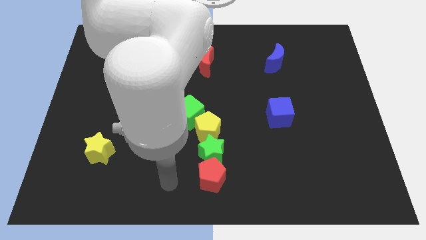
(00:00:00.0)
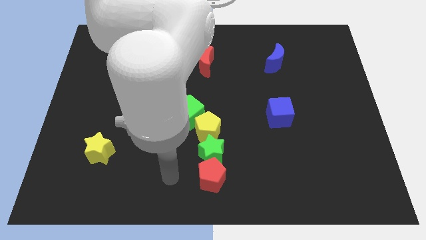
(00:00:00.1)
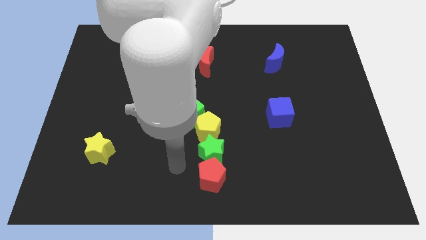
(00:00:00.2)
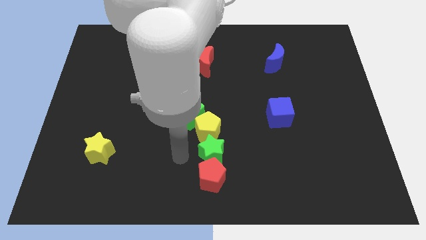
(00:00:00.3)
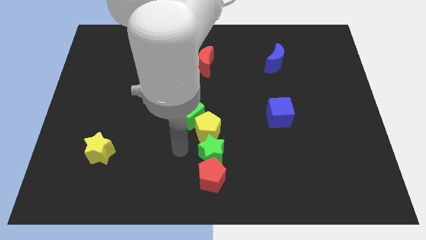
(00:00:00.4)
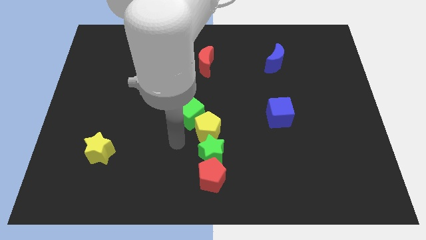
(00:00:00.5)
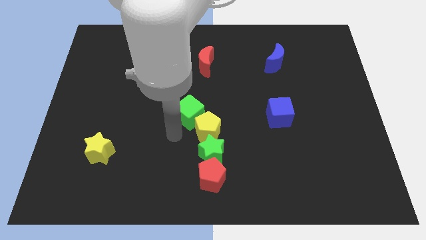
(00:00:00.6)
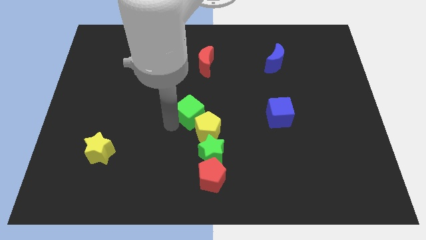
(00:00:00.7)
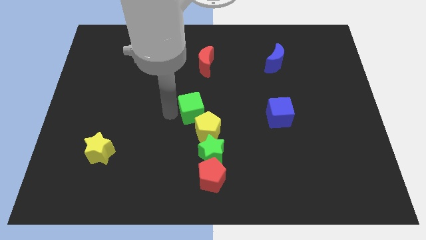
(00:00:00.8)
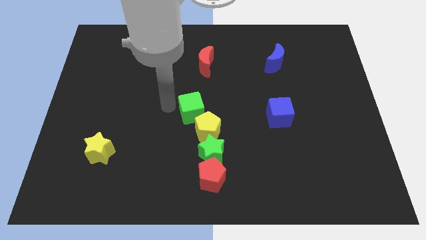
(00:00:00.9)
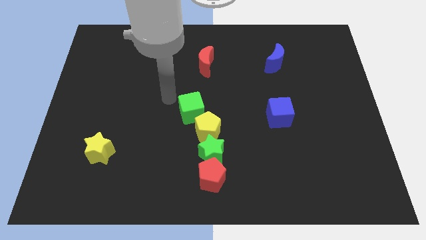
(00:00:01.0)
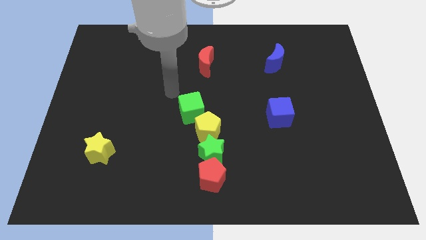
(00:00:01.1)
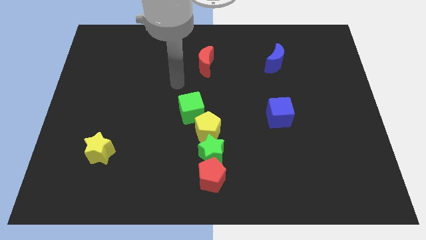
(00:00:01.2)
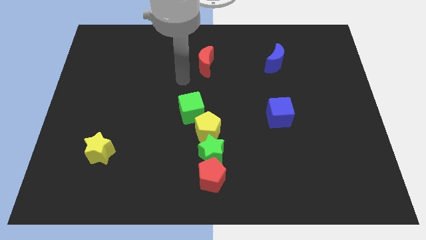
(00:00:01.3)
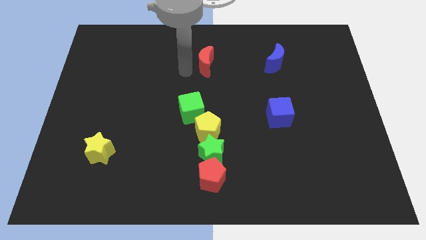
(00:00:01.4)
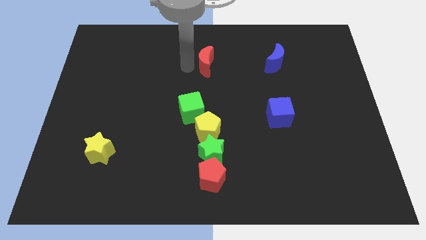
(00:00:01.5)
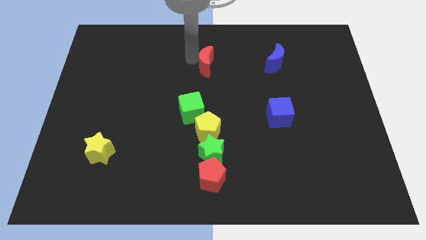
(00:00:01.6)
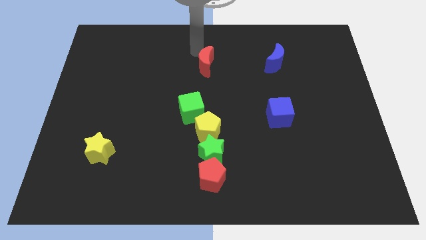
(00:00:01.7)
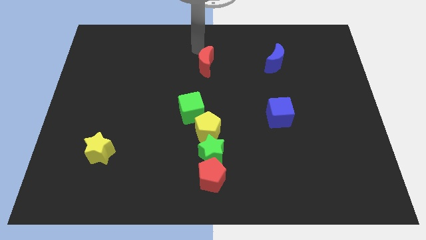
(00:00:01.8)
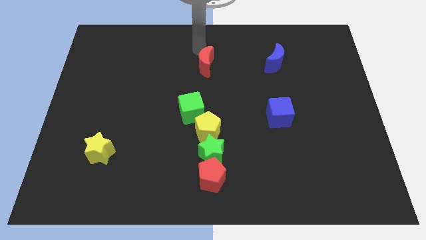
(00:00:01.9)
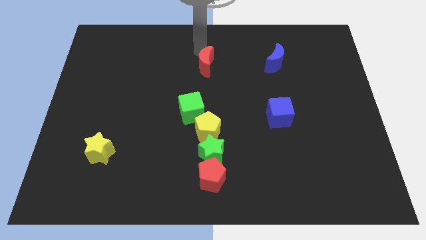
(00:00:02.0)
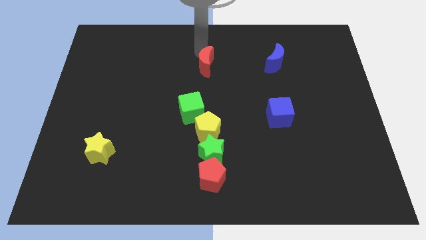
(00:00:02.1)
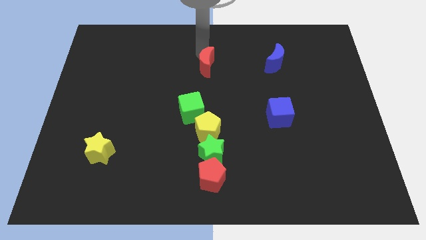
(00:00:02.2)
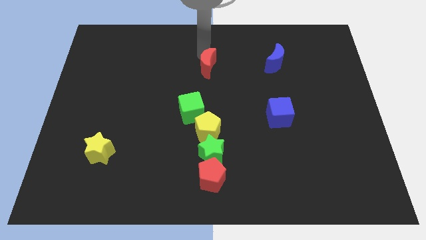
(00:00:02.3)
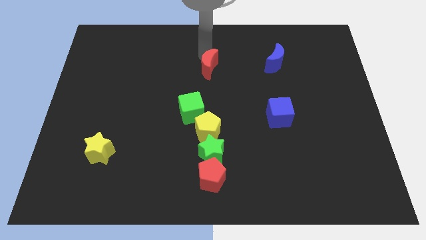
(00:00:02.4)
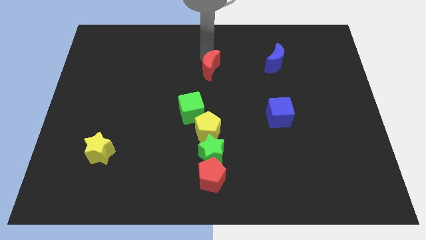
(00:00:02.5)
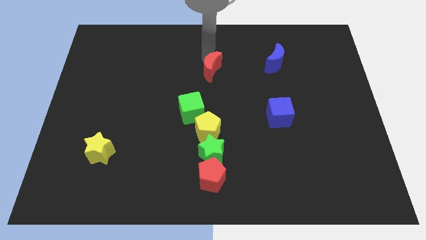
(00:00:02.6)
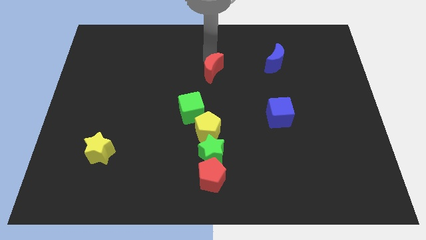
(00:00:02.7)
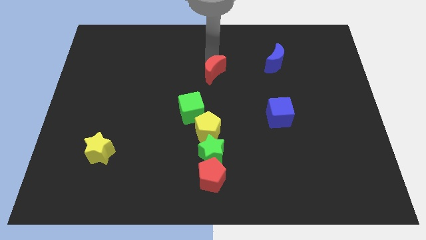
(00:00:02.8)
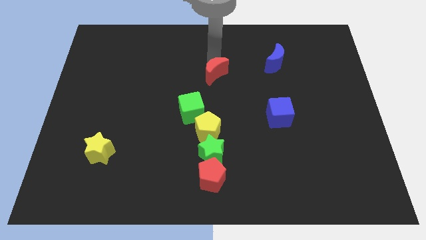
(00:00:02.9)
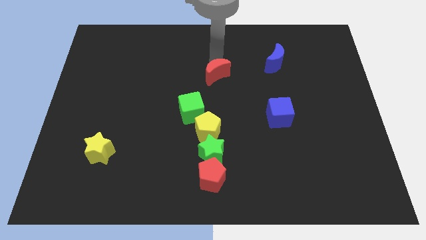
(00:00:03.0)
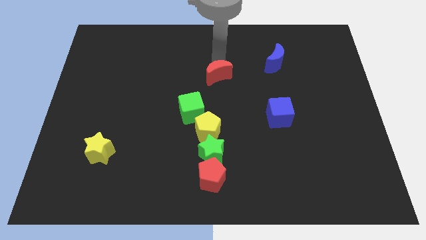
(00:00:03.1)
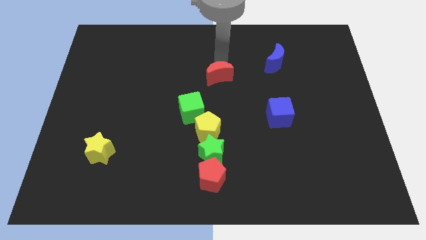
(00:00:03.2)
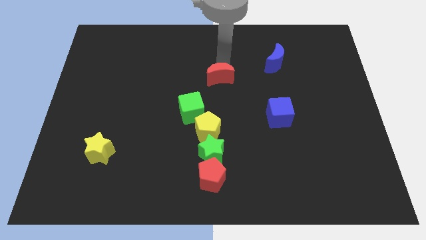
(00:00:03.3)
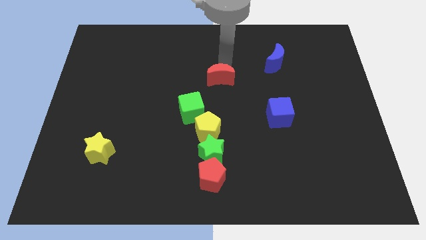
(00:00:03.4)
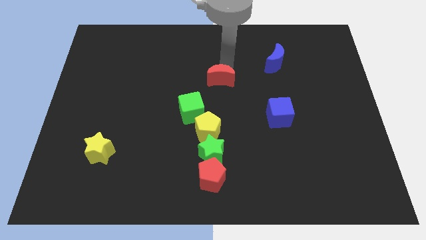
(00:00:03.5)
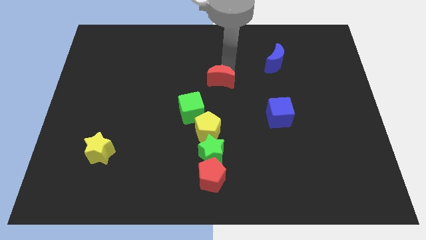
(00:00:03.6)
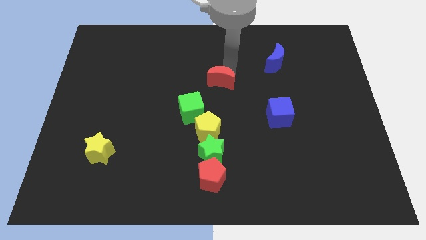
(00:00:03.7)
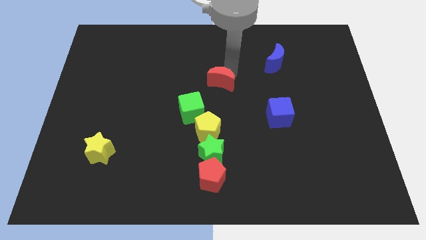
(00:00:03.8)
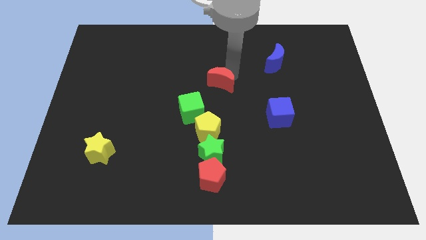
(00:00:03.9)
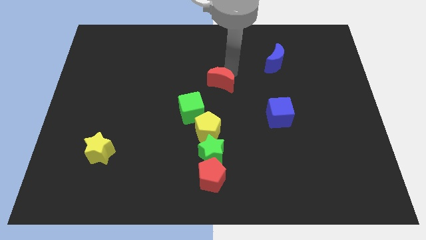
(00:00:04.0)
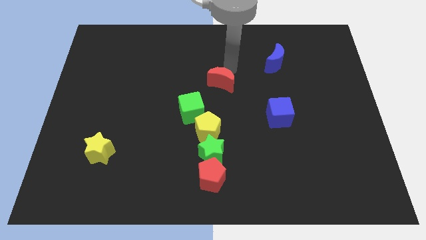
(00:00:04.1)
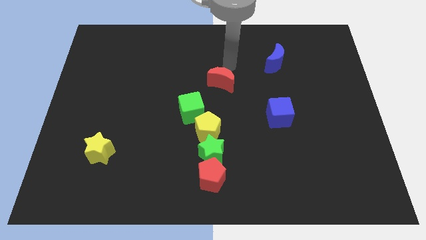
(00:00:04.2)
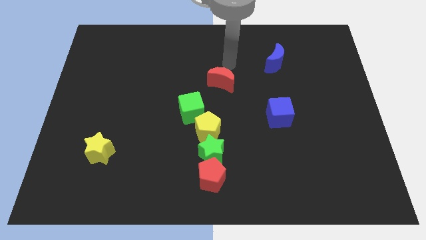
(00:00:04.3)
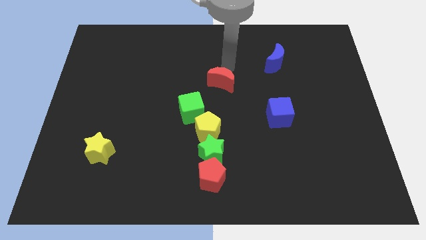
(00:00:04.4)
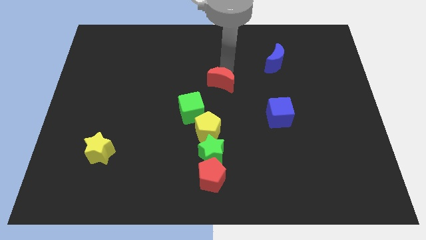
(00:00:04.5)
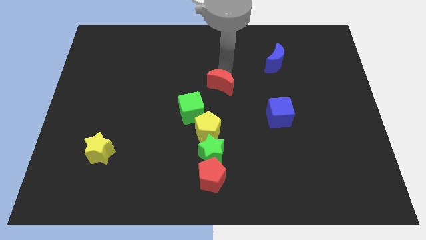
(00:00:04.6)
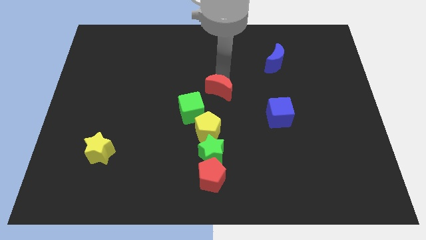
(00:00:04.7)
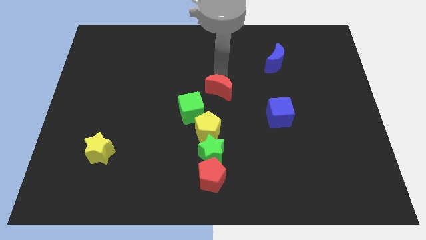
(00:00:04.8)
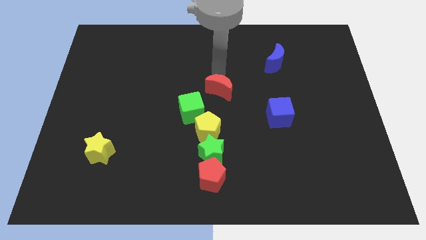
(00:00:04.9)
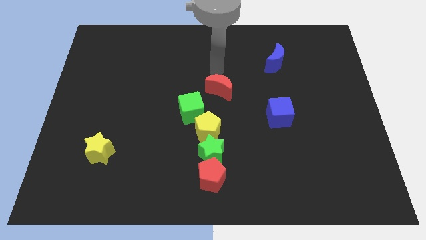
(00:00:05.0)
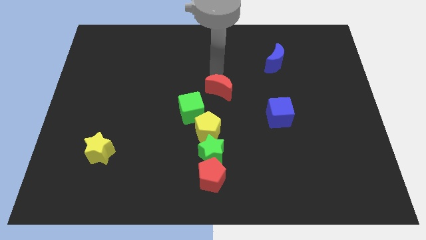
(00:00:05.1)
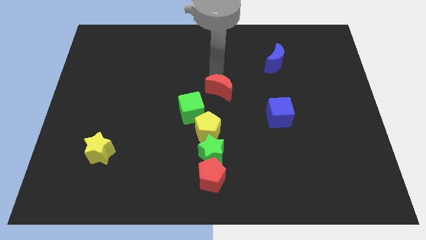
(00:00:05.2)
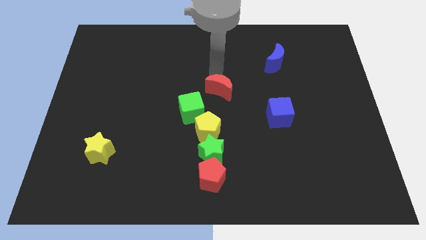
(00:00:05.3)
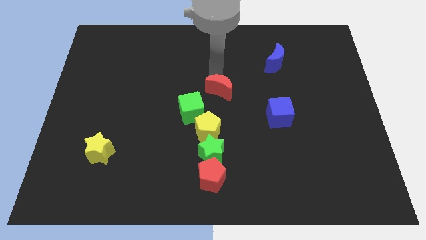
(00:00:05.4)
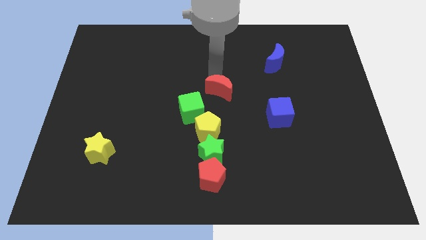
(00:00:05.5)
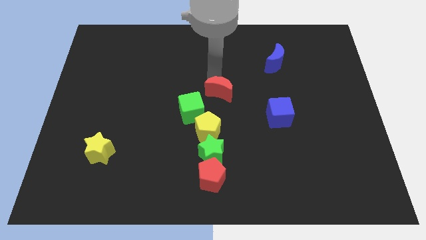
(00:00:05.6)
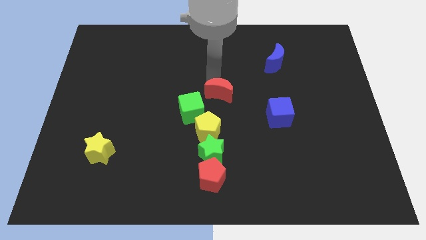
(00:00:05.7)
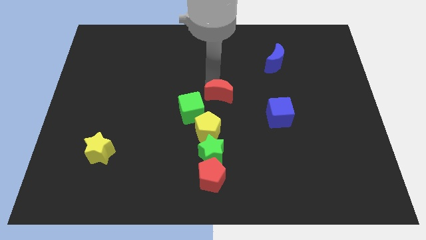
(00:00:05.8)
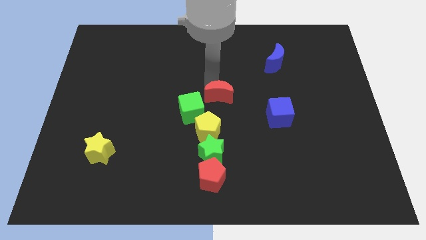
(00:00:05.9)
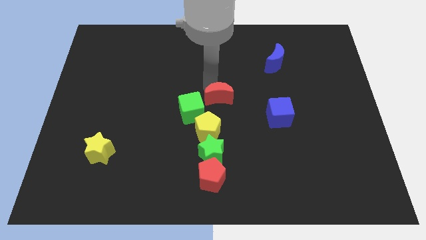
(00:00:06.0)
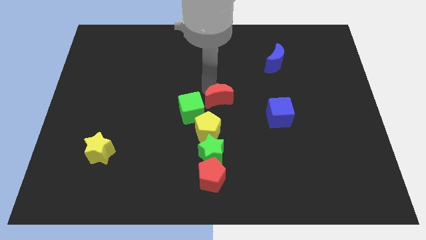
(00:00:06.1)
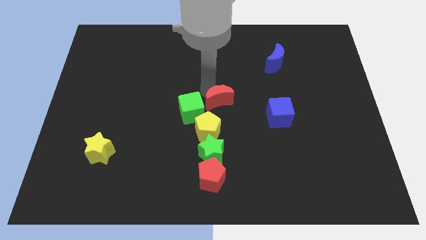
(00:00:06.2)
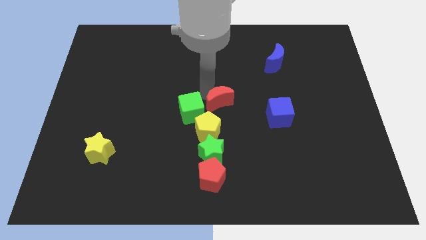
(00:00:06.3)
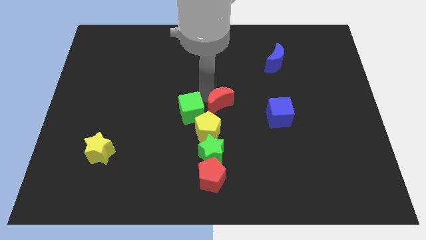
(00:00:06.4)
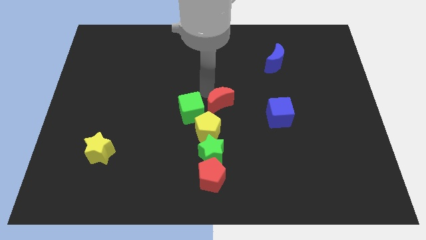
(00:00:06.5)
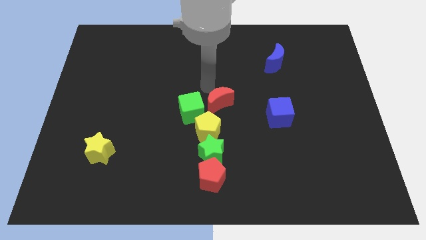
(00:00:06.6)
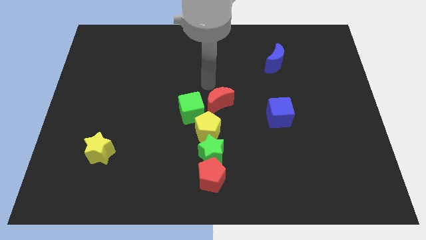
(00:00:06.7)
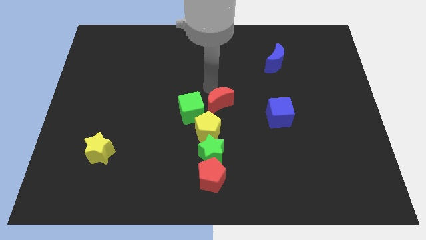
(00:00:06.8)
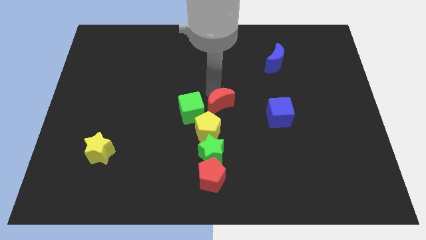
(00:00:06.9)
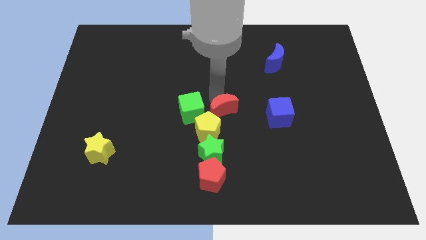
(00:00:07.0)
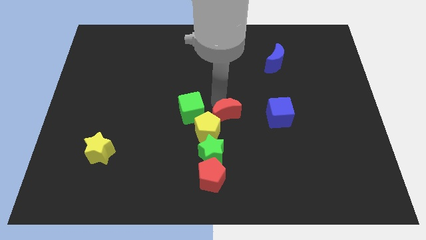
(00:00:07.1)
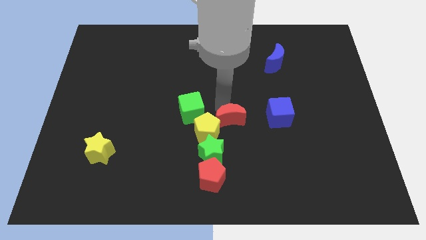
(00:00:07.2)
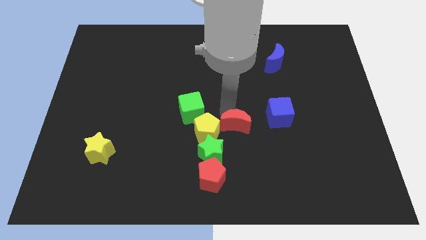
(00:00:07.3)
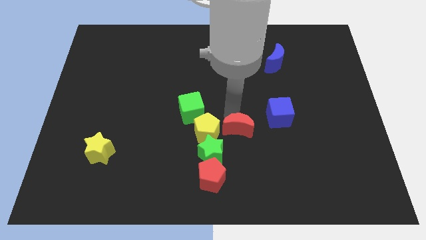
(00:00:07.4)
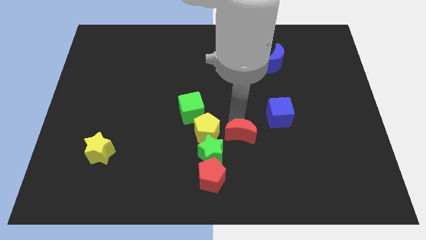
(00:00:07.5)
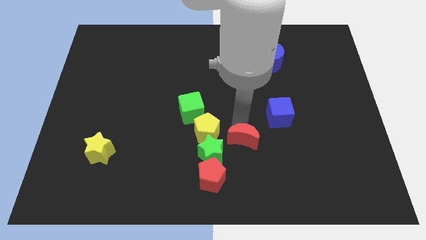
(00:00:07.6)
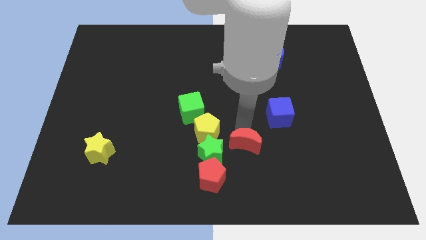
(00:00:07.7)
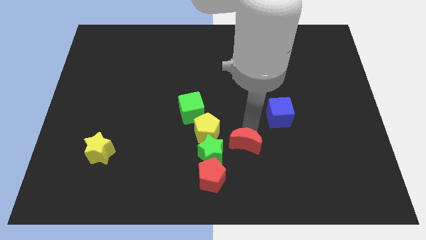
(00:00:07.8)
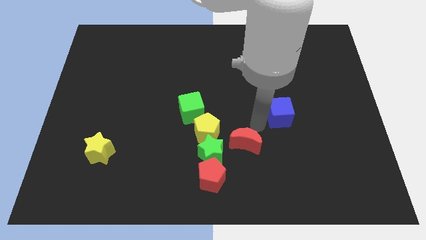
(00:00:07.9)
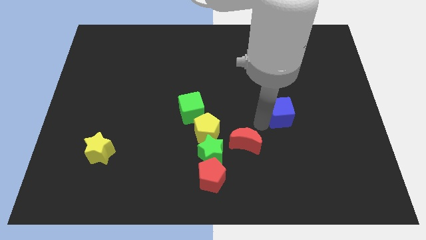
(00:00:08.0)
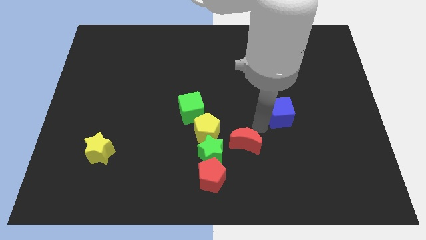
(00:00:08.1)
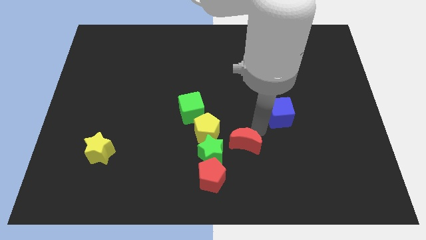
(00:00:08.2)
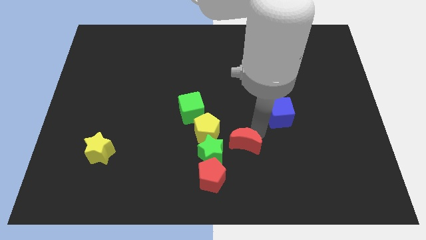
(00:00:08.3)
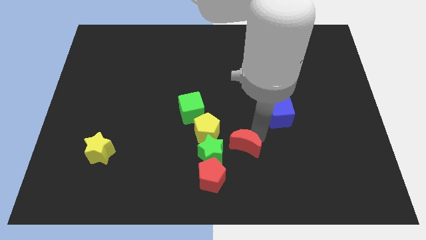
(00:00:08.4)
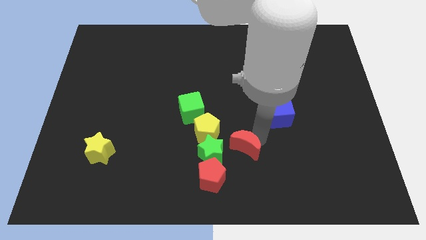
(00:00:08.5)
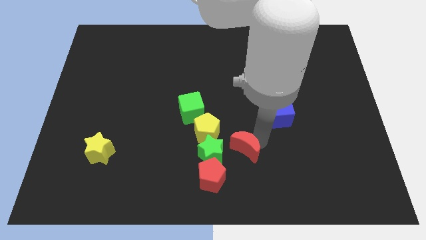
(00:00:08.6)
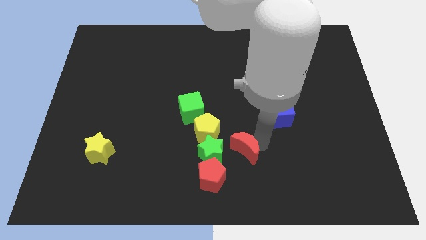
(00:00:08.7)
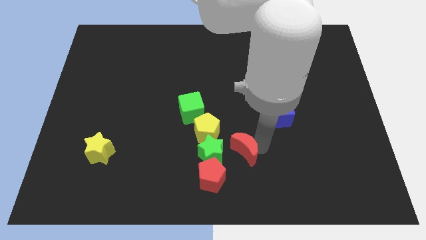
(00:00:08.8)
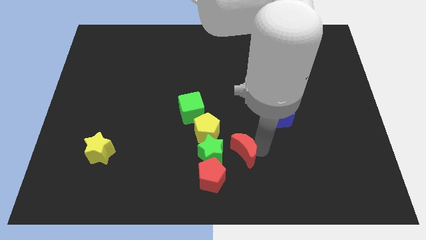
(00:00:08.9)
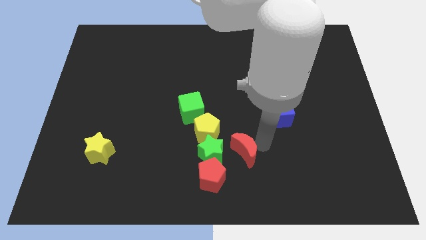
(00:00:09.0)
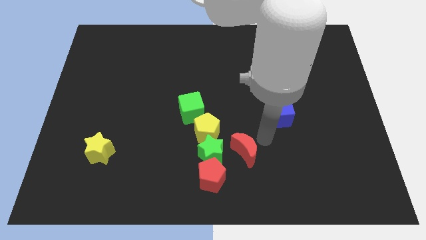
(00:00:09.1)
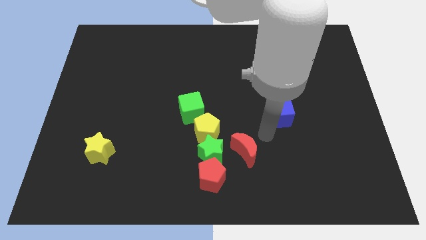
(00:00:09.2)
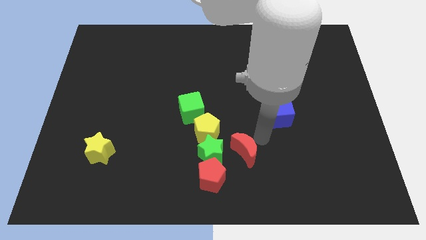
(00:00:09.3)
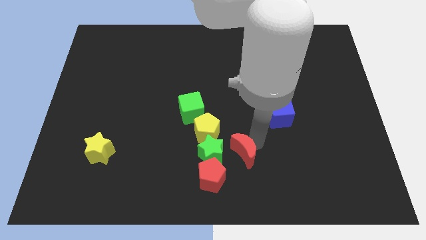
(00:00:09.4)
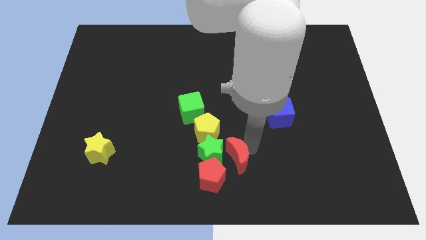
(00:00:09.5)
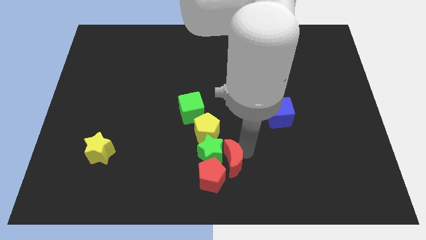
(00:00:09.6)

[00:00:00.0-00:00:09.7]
slide the red moon towards the red pentagon
